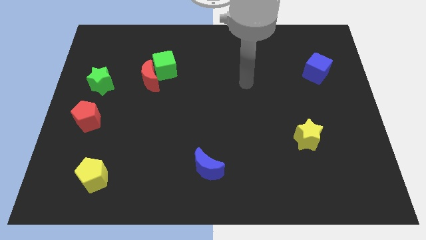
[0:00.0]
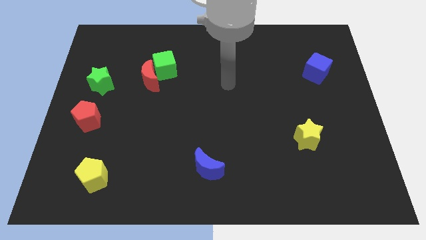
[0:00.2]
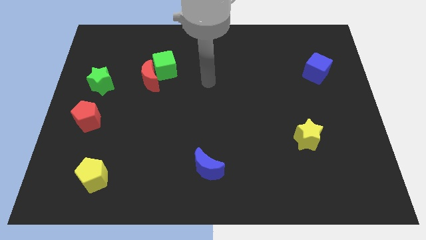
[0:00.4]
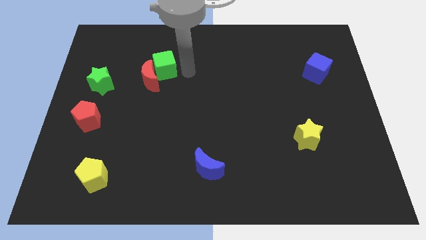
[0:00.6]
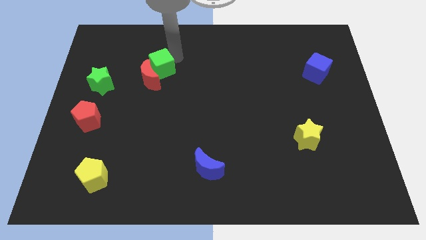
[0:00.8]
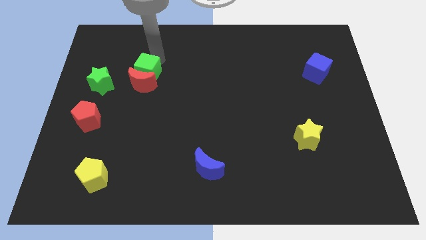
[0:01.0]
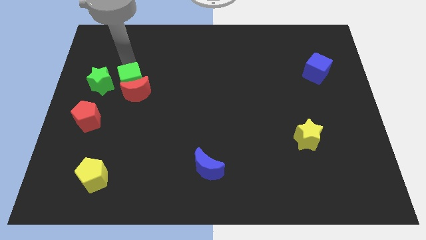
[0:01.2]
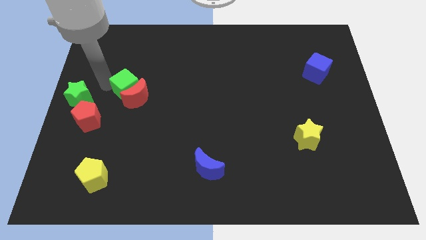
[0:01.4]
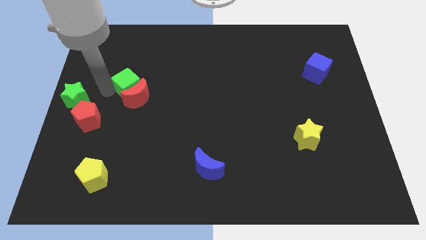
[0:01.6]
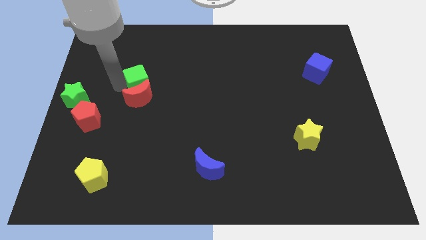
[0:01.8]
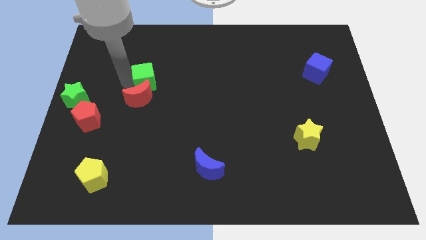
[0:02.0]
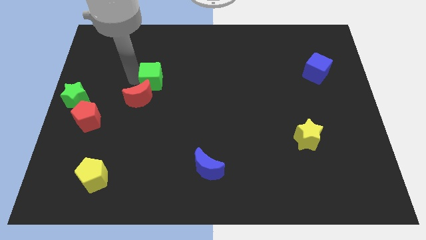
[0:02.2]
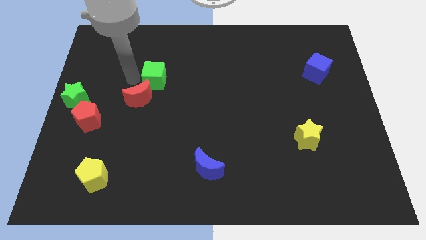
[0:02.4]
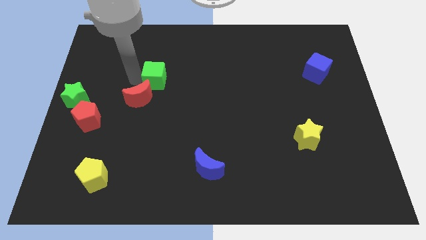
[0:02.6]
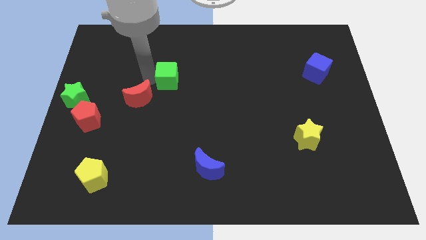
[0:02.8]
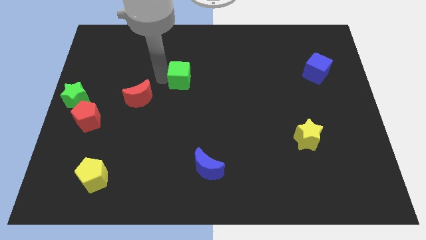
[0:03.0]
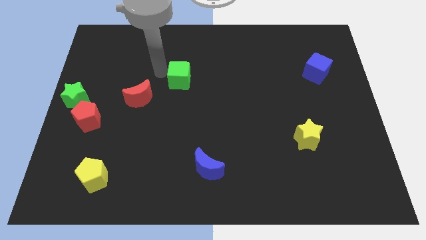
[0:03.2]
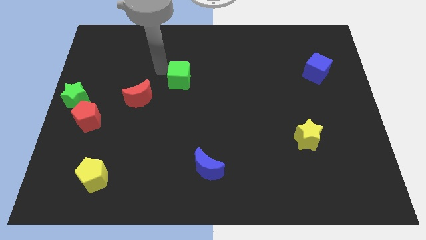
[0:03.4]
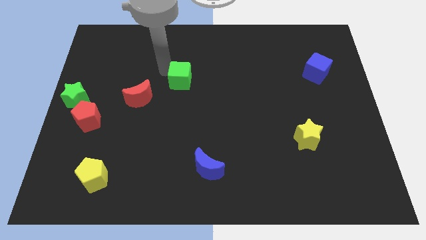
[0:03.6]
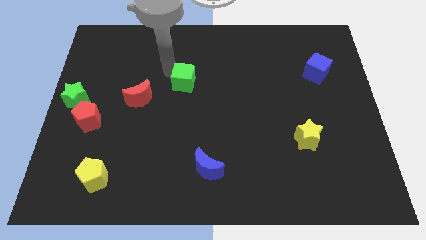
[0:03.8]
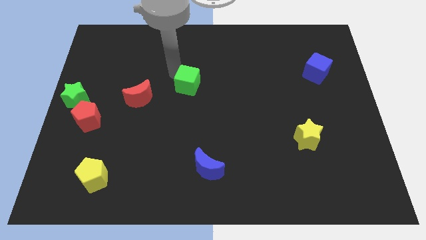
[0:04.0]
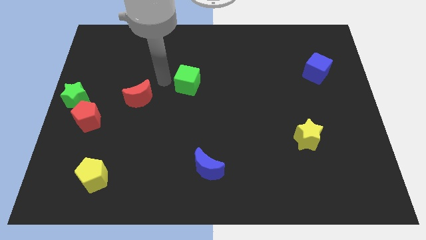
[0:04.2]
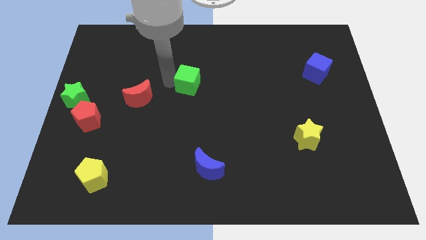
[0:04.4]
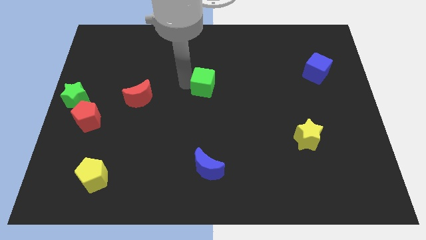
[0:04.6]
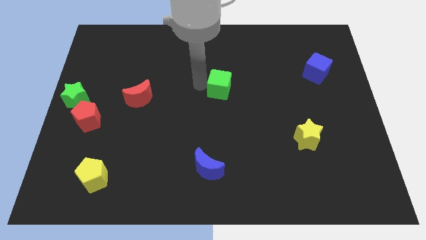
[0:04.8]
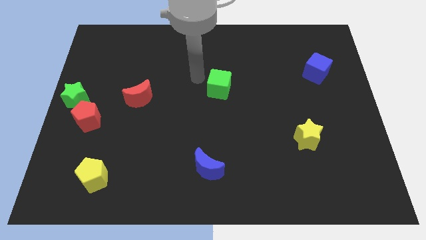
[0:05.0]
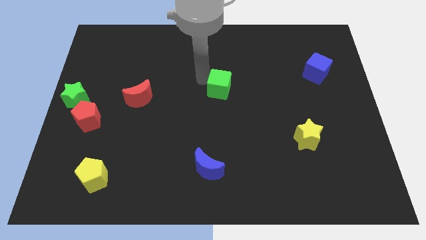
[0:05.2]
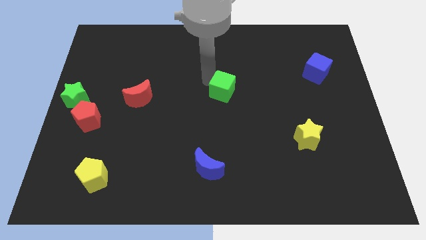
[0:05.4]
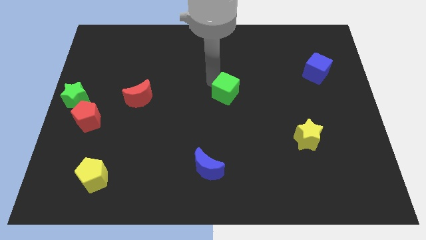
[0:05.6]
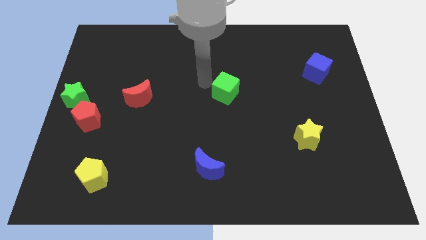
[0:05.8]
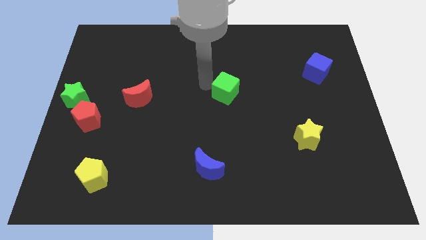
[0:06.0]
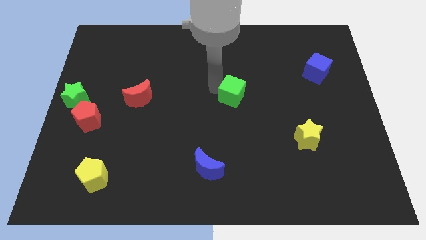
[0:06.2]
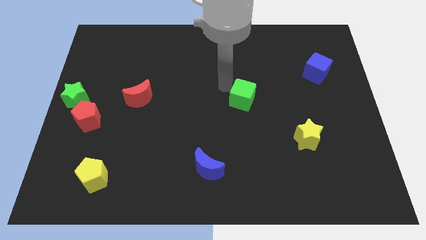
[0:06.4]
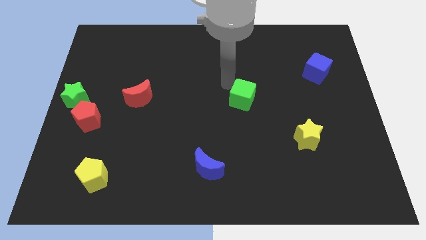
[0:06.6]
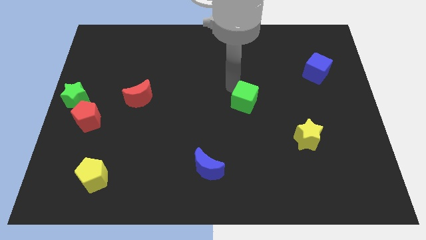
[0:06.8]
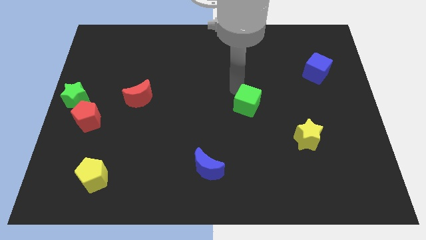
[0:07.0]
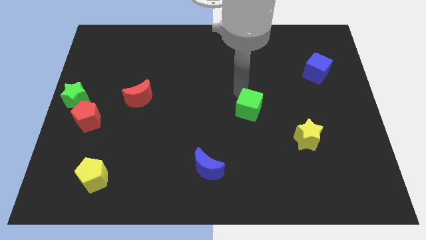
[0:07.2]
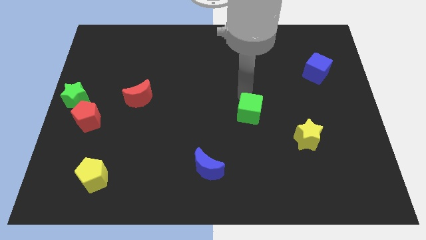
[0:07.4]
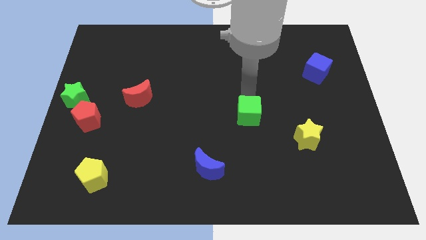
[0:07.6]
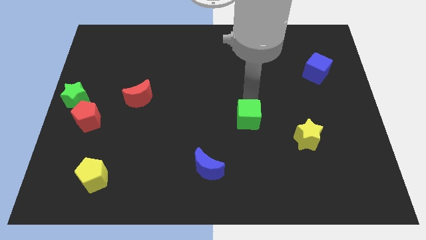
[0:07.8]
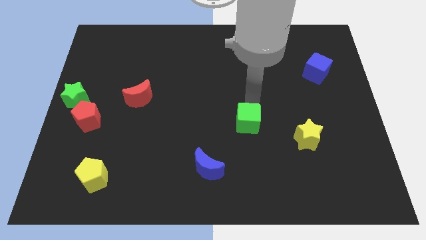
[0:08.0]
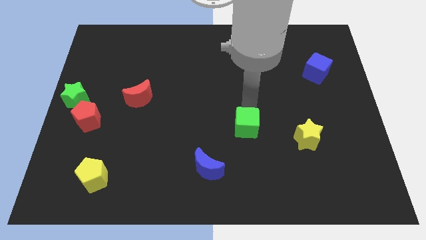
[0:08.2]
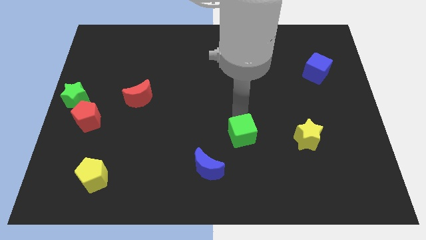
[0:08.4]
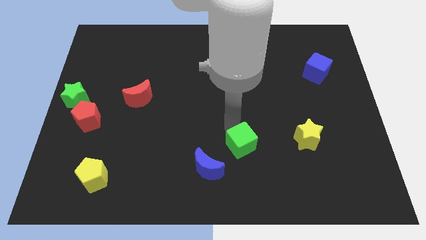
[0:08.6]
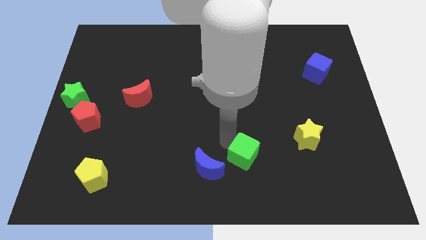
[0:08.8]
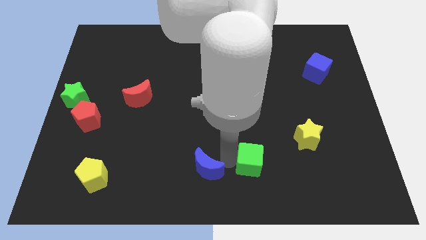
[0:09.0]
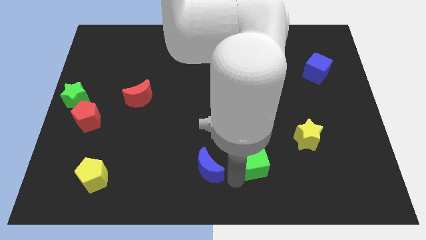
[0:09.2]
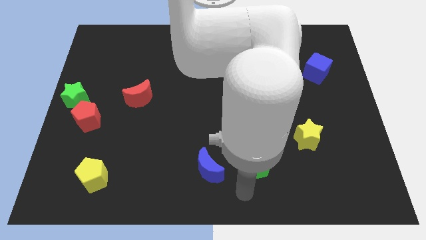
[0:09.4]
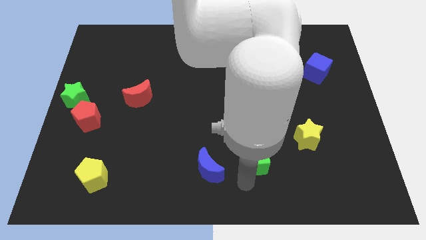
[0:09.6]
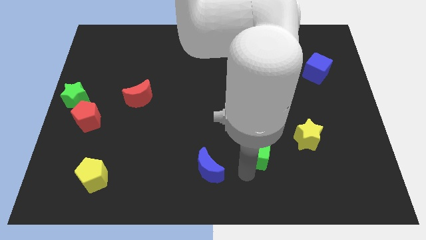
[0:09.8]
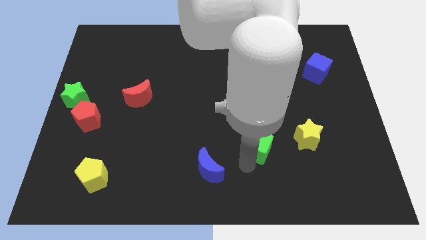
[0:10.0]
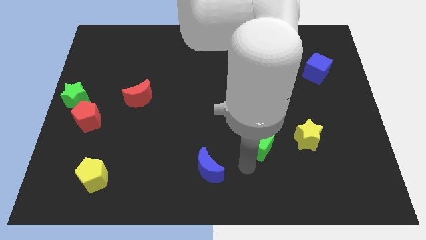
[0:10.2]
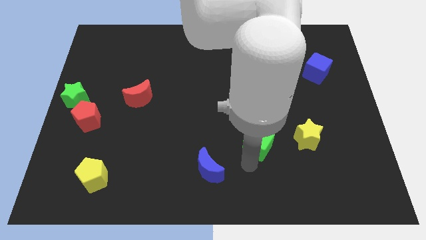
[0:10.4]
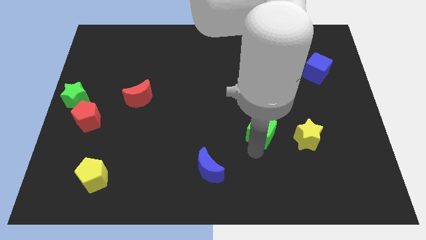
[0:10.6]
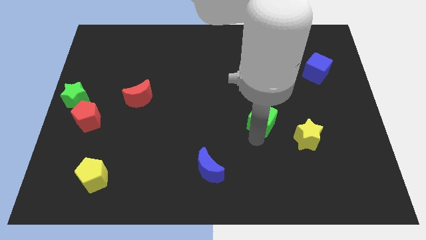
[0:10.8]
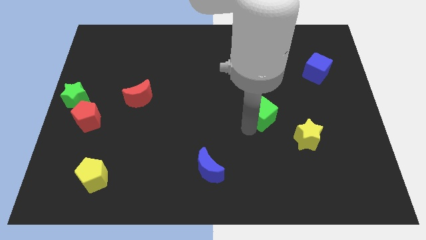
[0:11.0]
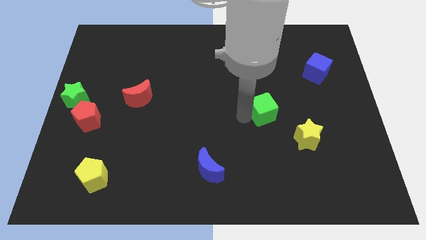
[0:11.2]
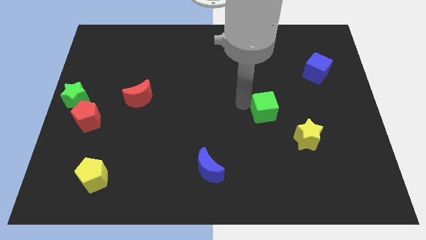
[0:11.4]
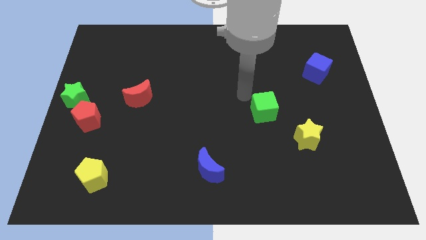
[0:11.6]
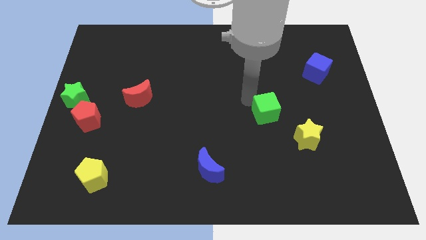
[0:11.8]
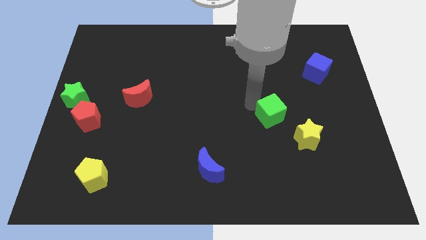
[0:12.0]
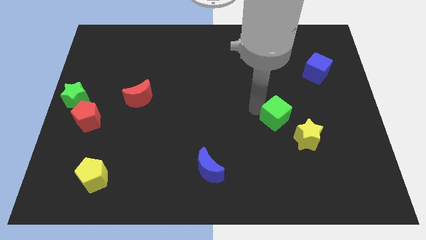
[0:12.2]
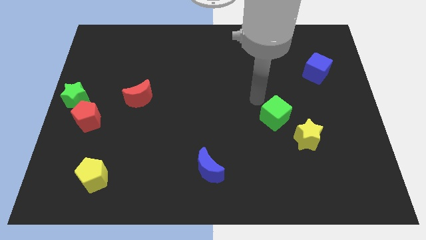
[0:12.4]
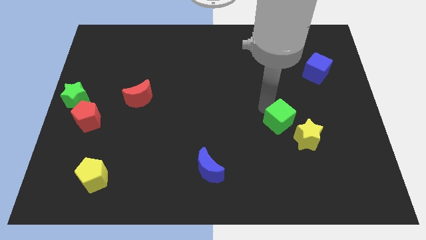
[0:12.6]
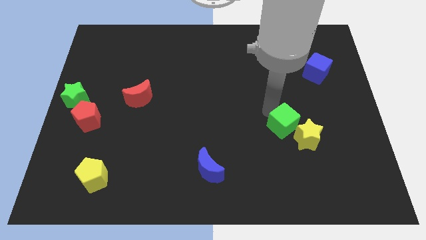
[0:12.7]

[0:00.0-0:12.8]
put the green cube next to the yellow star

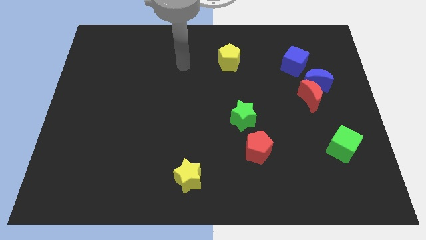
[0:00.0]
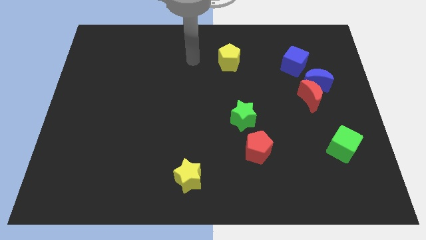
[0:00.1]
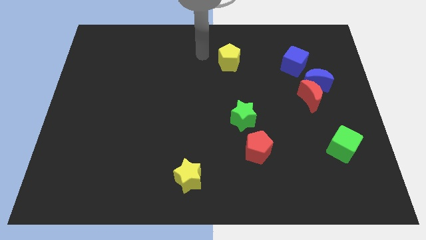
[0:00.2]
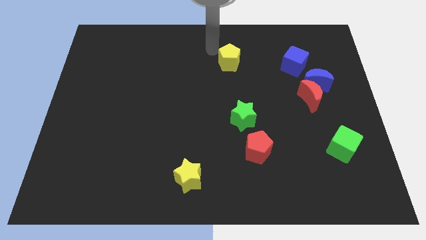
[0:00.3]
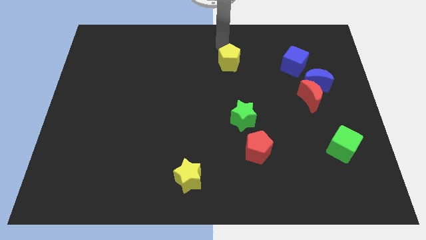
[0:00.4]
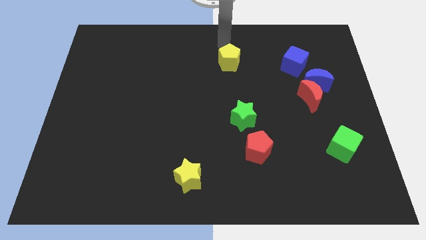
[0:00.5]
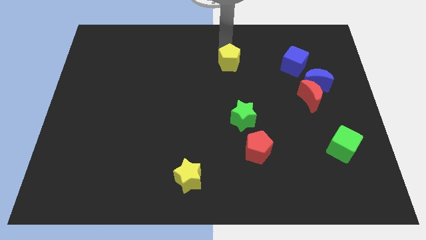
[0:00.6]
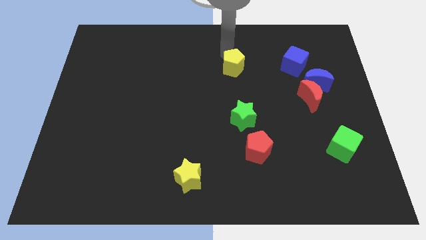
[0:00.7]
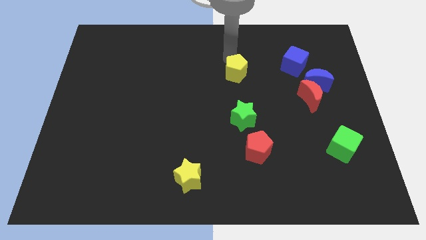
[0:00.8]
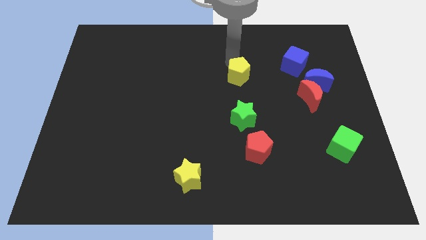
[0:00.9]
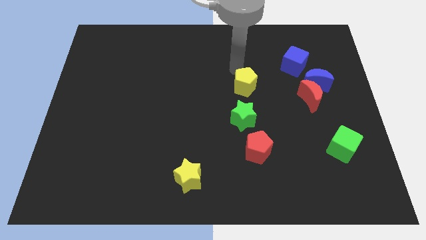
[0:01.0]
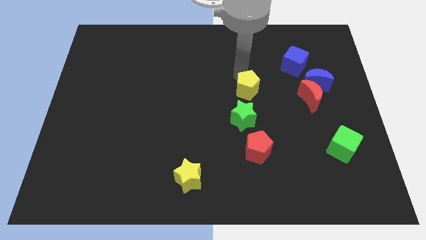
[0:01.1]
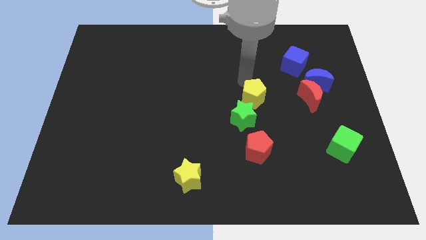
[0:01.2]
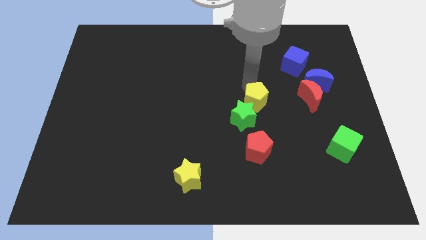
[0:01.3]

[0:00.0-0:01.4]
move the yellow pentagon next to the green star
